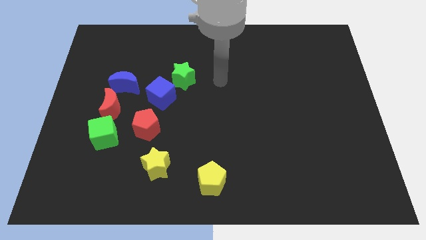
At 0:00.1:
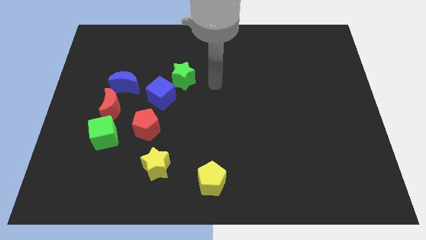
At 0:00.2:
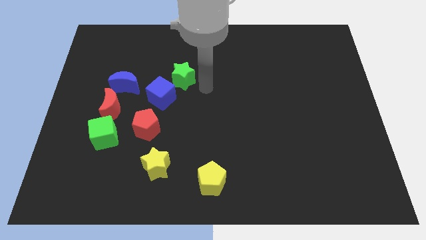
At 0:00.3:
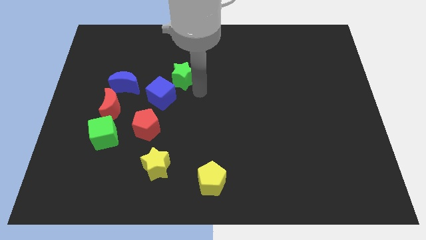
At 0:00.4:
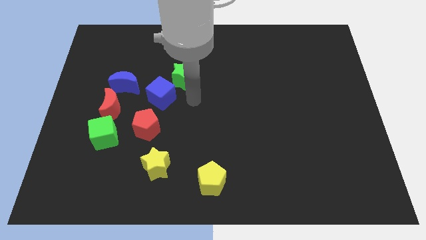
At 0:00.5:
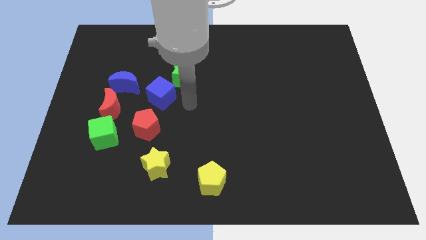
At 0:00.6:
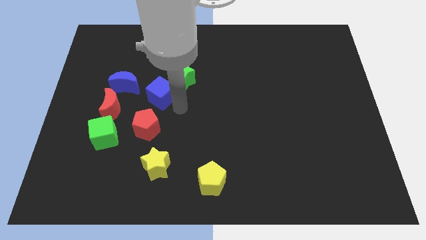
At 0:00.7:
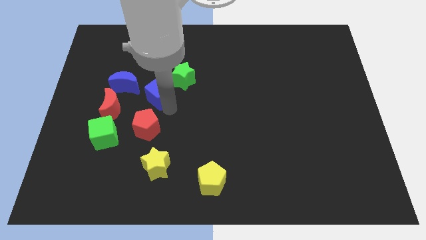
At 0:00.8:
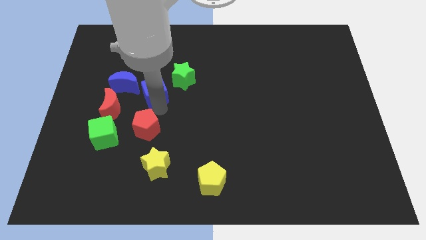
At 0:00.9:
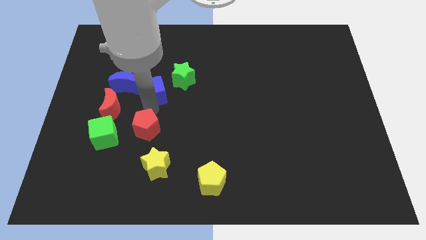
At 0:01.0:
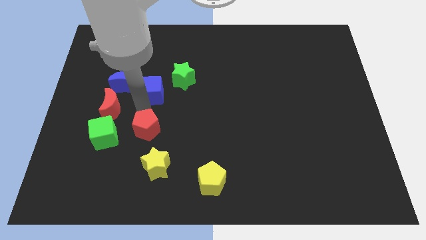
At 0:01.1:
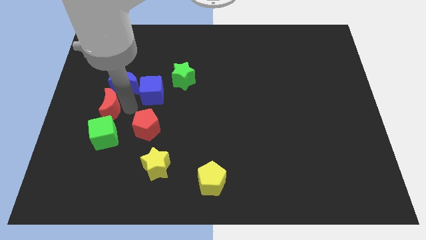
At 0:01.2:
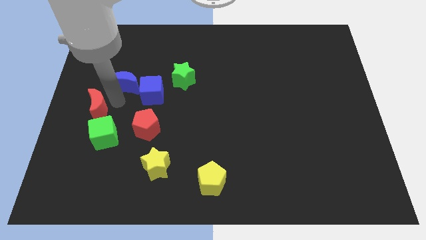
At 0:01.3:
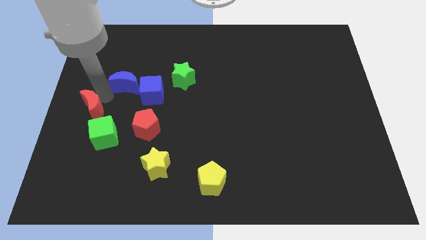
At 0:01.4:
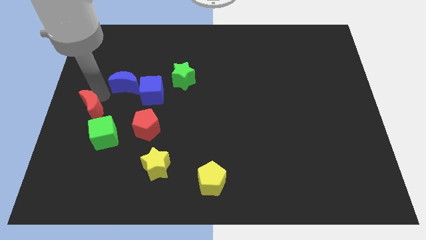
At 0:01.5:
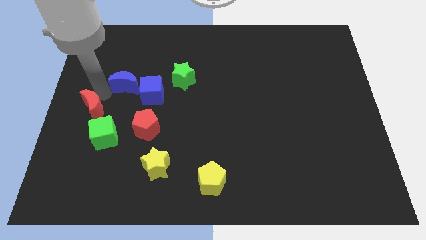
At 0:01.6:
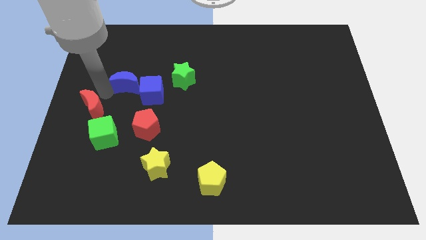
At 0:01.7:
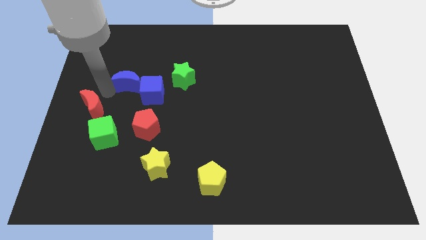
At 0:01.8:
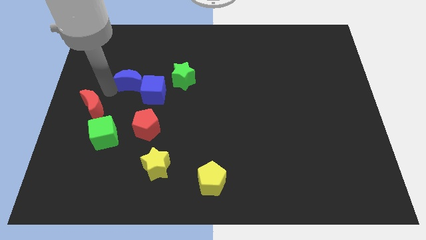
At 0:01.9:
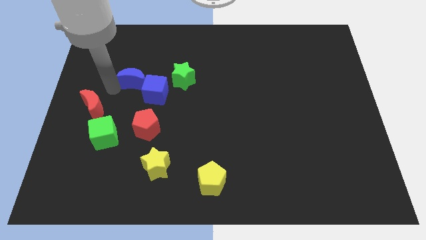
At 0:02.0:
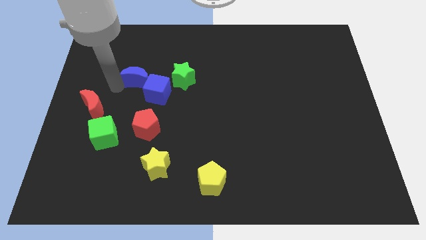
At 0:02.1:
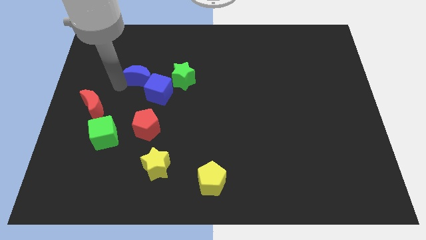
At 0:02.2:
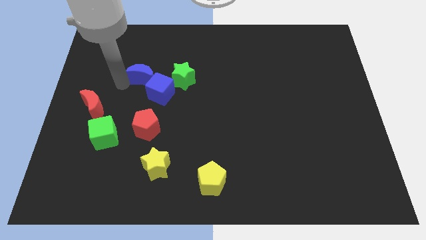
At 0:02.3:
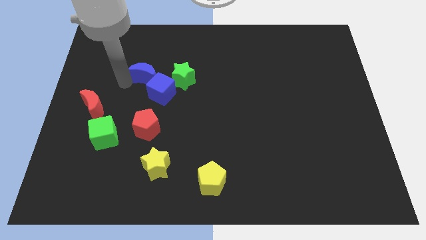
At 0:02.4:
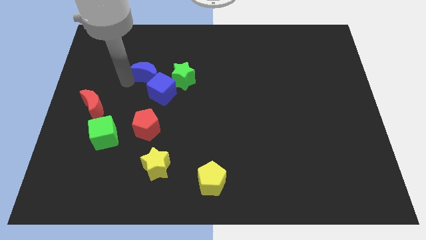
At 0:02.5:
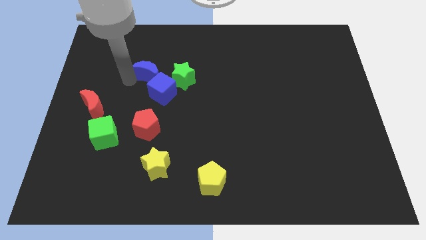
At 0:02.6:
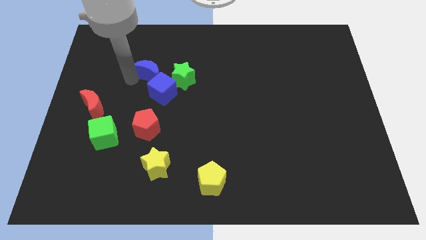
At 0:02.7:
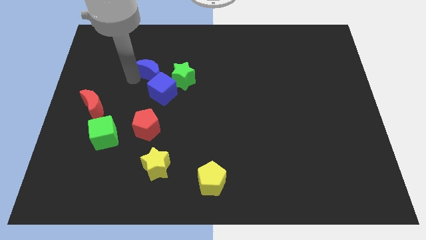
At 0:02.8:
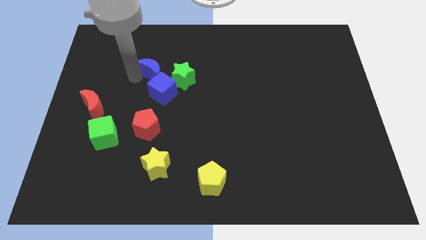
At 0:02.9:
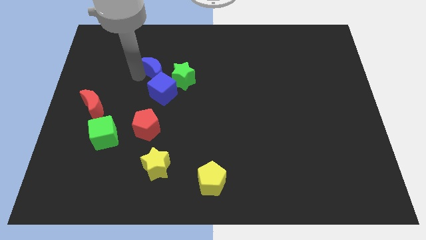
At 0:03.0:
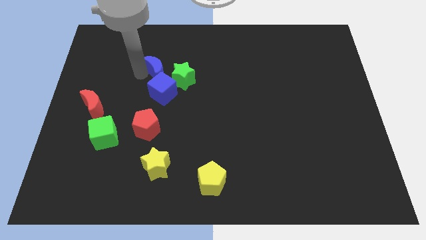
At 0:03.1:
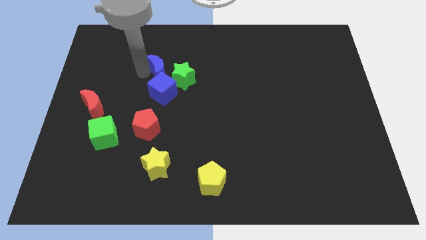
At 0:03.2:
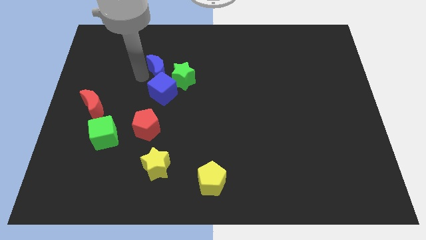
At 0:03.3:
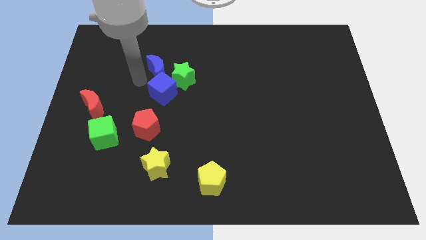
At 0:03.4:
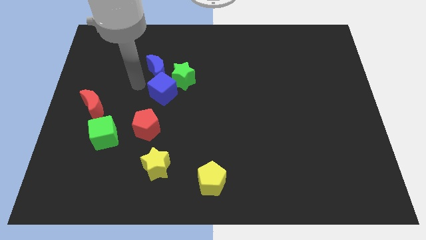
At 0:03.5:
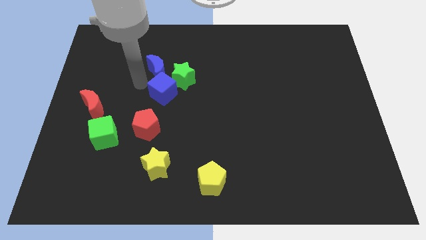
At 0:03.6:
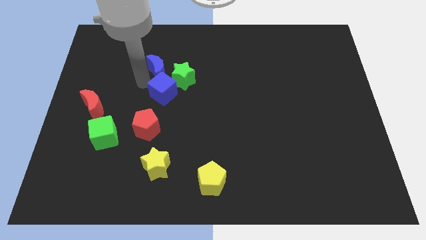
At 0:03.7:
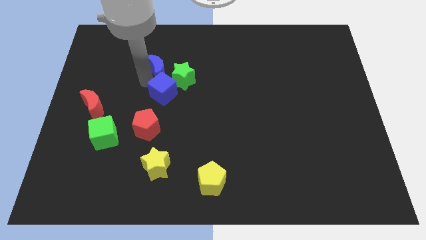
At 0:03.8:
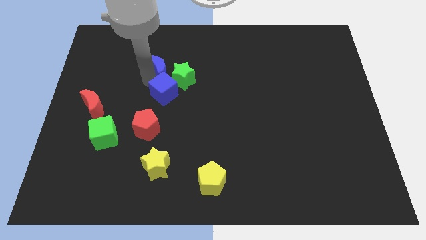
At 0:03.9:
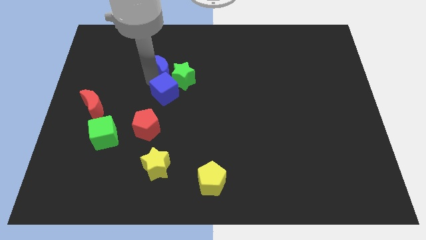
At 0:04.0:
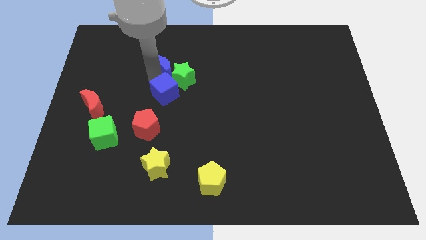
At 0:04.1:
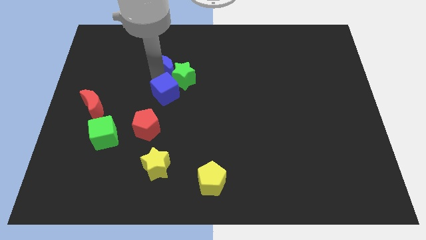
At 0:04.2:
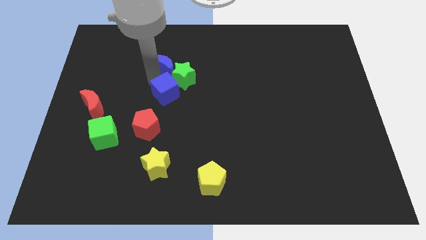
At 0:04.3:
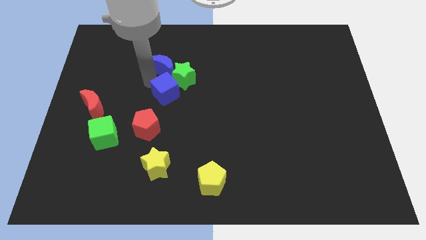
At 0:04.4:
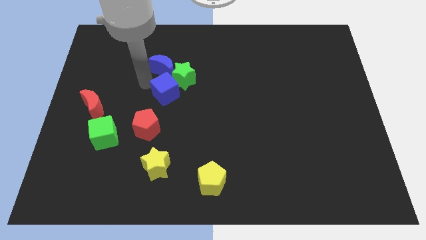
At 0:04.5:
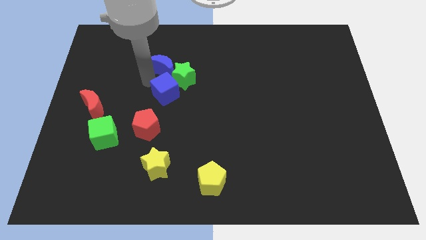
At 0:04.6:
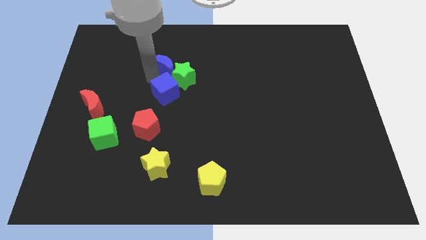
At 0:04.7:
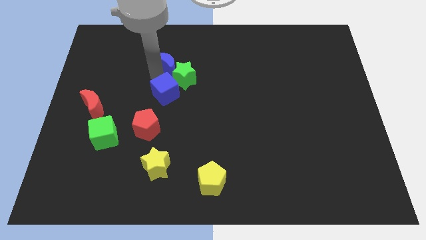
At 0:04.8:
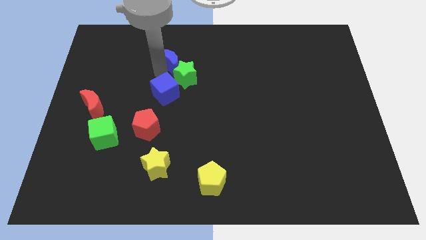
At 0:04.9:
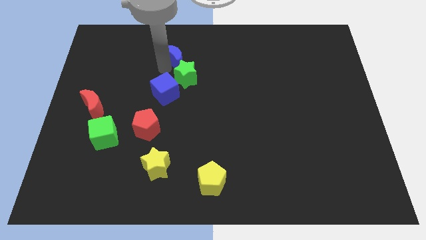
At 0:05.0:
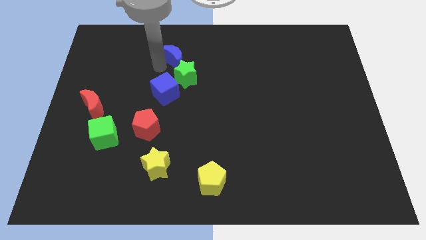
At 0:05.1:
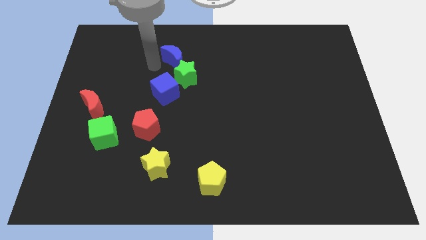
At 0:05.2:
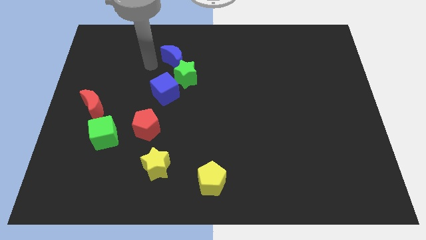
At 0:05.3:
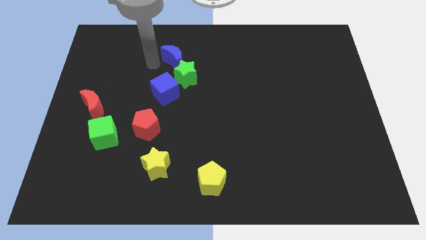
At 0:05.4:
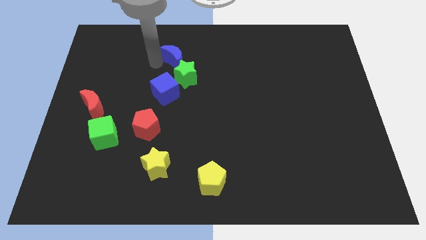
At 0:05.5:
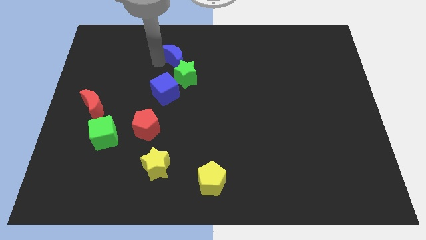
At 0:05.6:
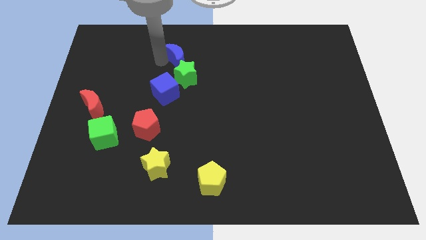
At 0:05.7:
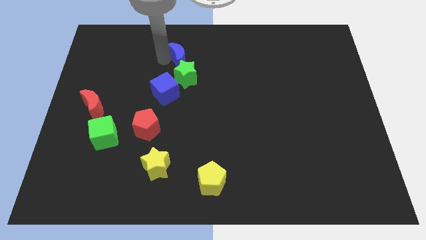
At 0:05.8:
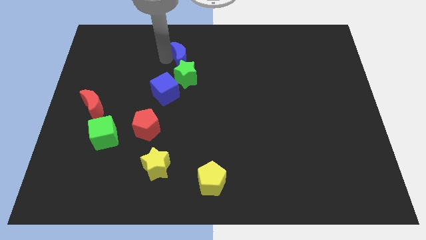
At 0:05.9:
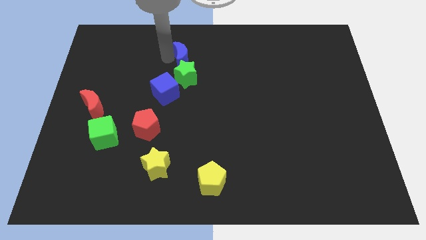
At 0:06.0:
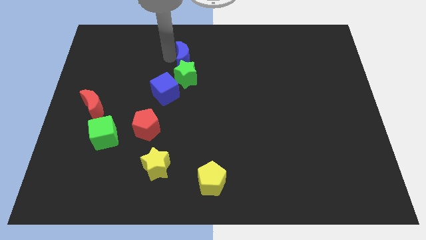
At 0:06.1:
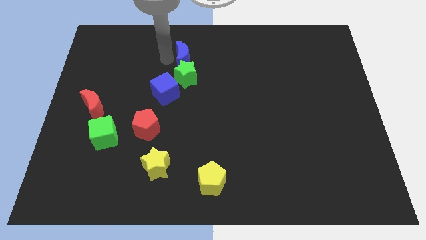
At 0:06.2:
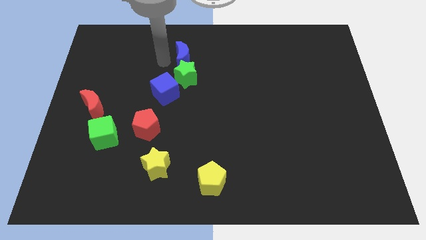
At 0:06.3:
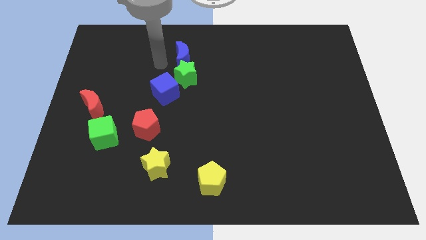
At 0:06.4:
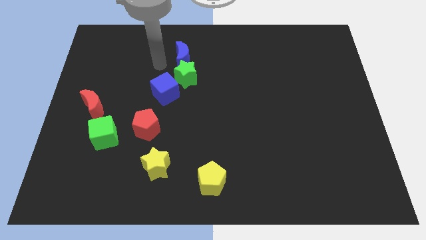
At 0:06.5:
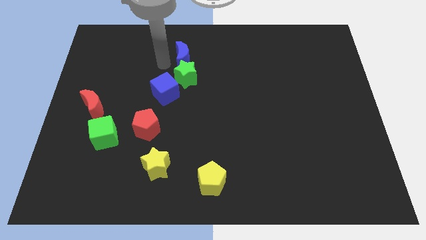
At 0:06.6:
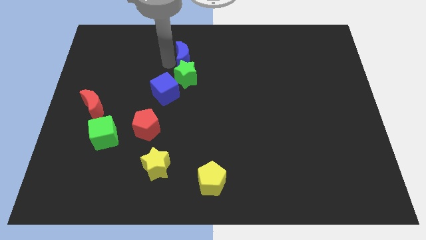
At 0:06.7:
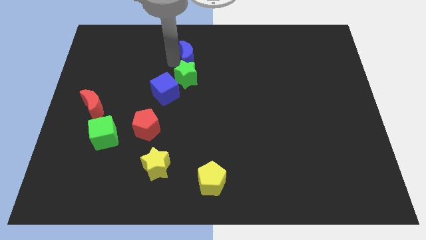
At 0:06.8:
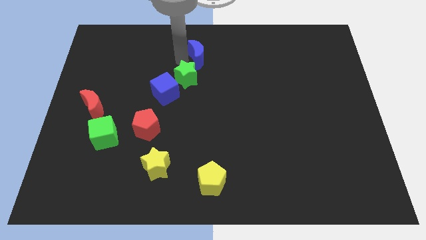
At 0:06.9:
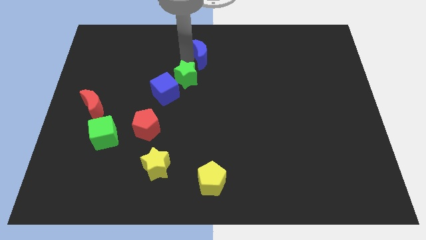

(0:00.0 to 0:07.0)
push the blue moon to the towards your base

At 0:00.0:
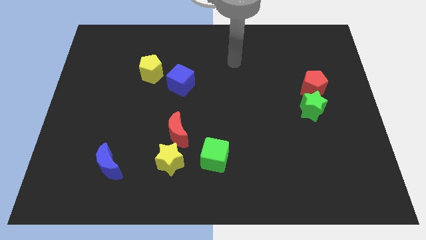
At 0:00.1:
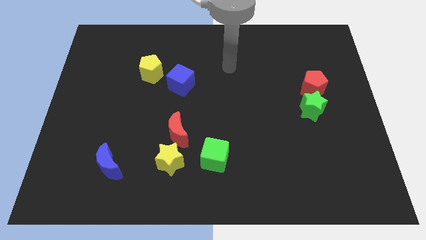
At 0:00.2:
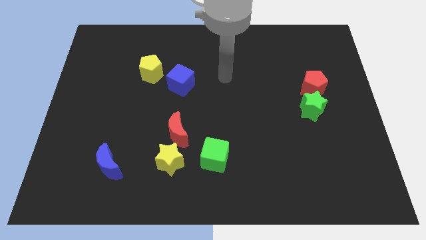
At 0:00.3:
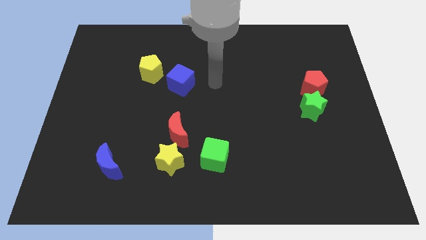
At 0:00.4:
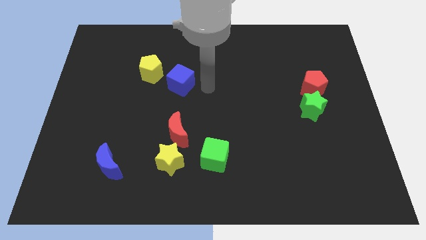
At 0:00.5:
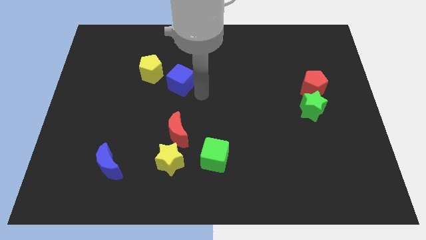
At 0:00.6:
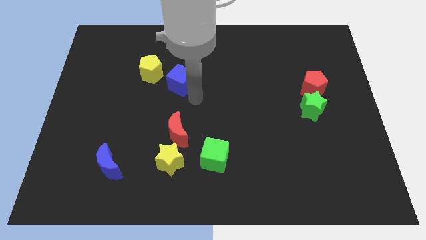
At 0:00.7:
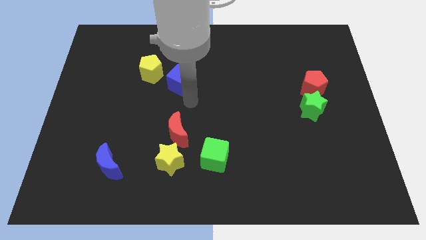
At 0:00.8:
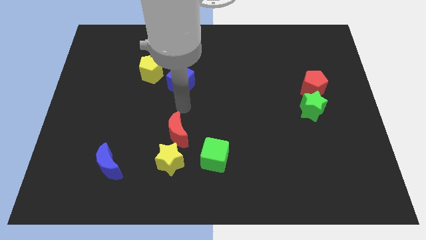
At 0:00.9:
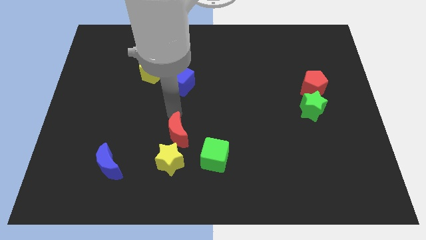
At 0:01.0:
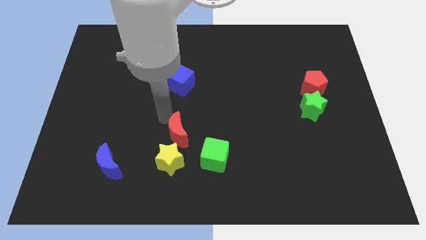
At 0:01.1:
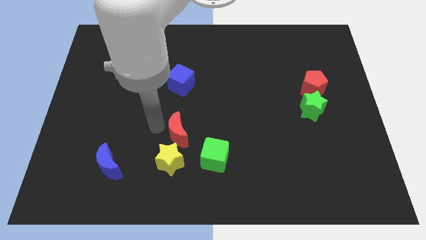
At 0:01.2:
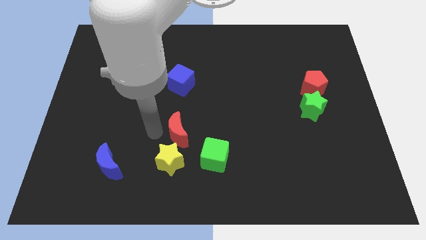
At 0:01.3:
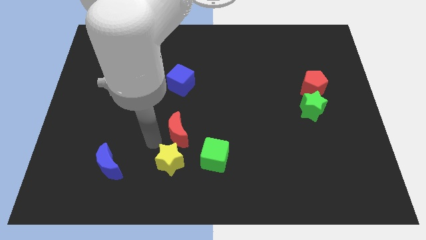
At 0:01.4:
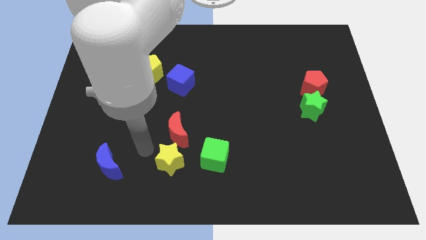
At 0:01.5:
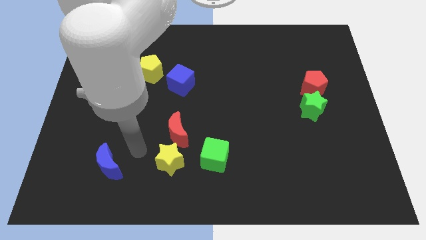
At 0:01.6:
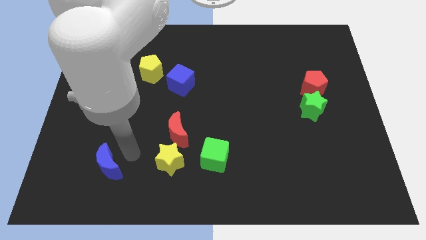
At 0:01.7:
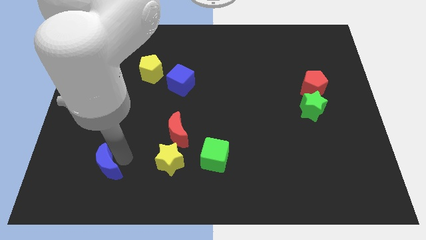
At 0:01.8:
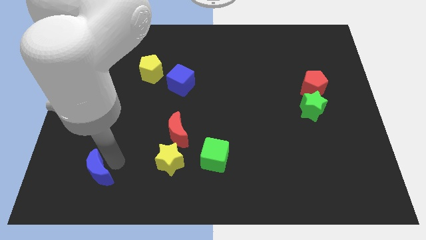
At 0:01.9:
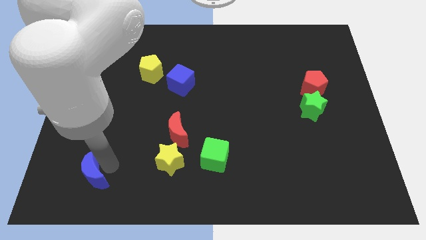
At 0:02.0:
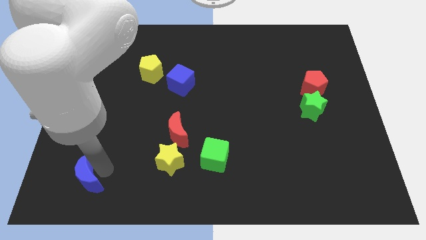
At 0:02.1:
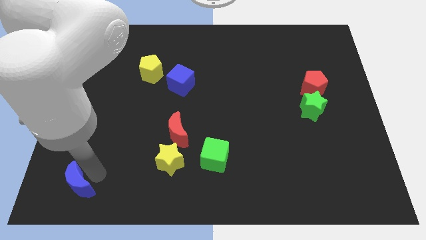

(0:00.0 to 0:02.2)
move the blue moon to the lower left corner
